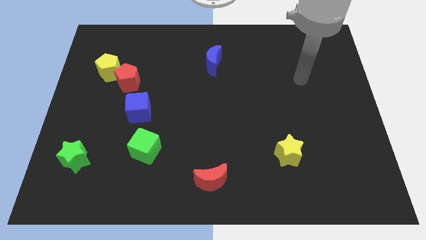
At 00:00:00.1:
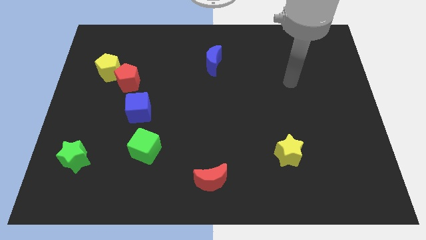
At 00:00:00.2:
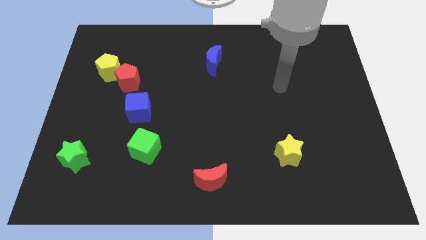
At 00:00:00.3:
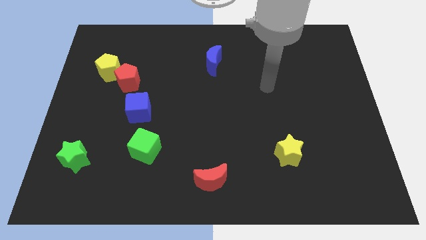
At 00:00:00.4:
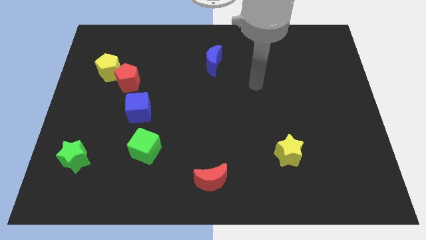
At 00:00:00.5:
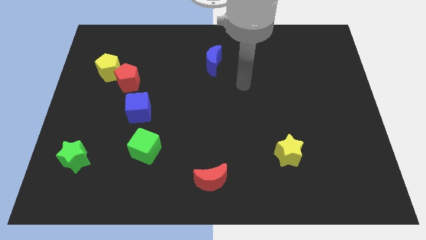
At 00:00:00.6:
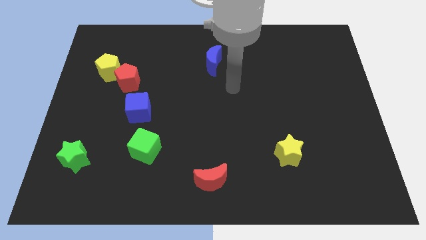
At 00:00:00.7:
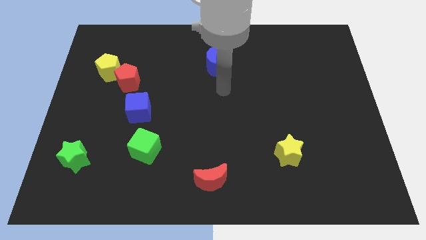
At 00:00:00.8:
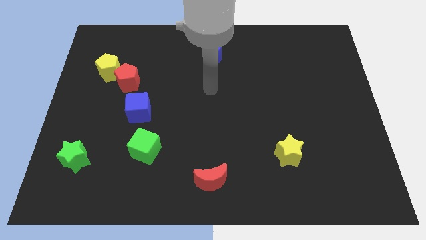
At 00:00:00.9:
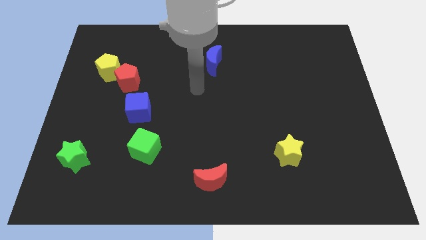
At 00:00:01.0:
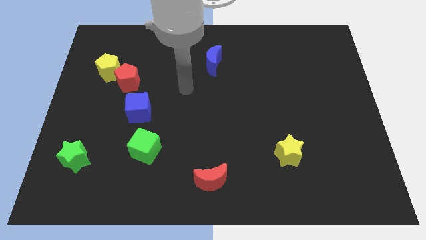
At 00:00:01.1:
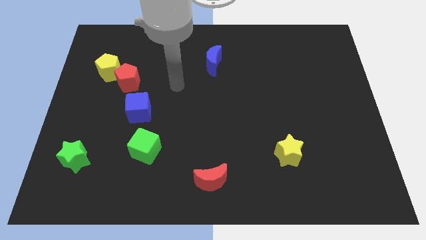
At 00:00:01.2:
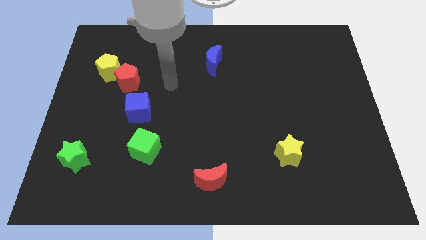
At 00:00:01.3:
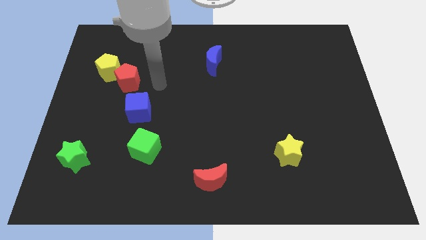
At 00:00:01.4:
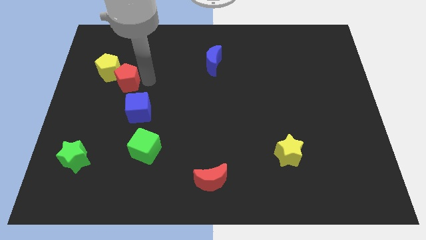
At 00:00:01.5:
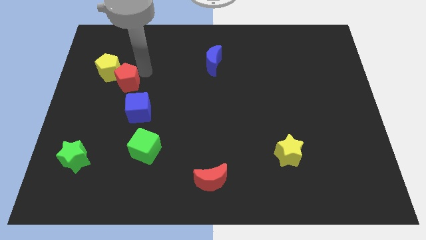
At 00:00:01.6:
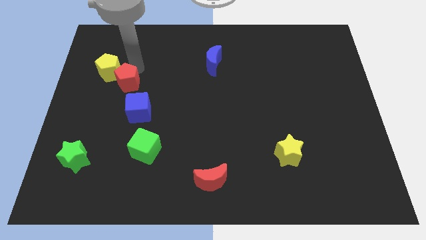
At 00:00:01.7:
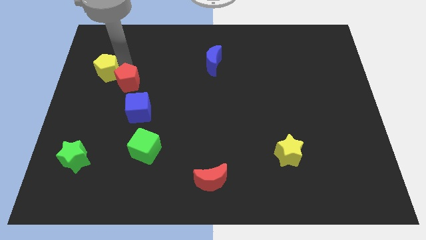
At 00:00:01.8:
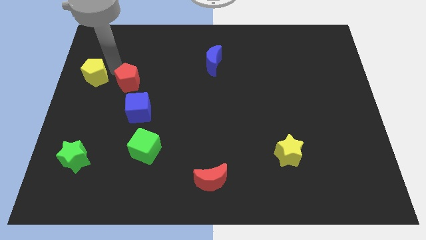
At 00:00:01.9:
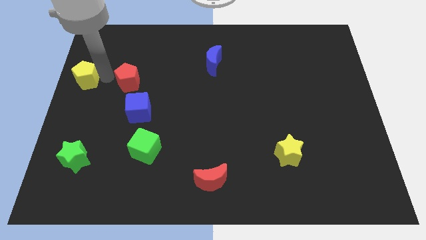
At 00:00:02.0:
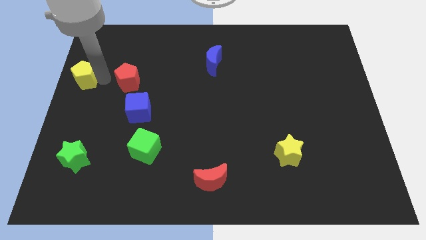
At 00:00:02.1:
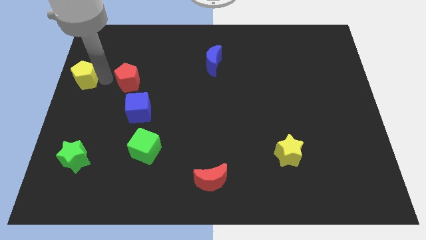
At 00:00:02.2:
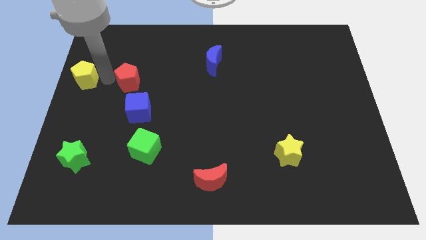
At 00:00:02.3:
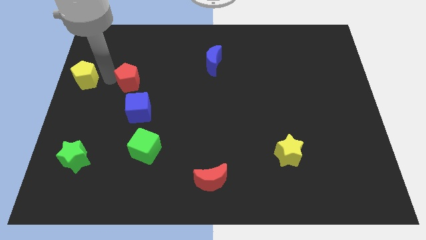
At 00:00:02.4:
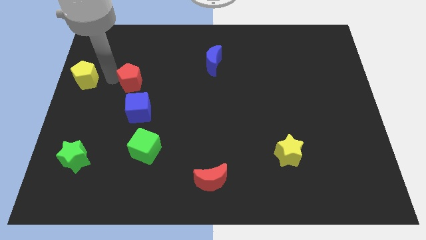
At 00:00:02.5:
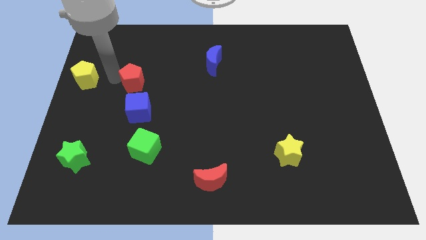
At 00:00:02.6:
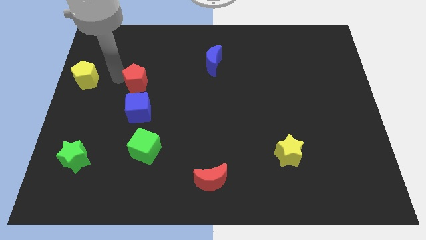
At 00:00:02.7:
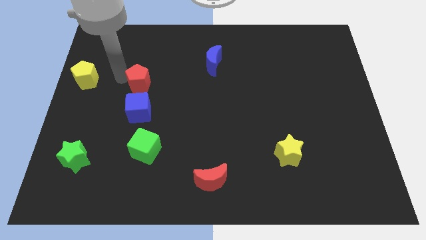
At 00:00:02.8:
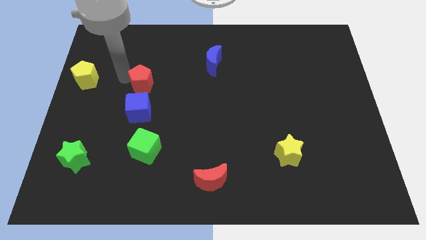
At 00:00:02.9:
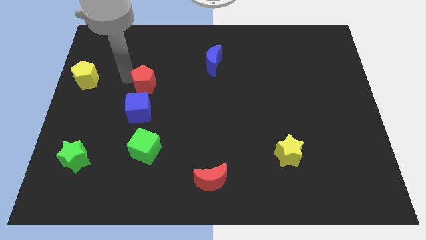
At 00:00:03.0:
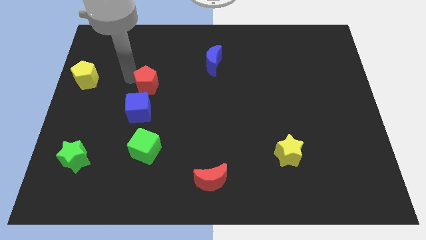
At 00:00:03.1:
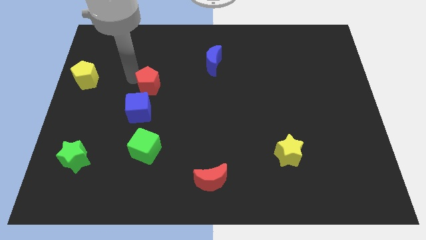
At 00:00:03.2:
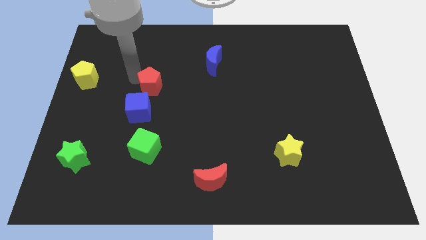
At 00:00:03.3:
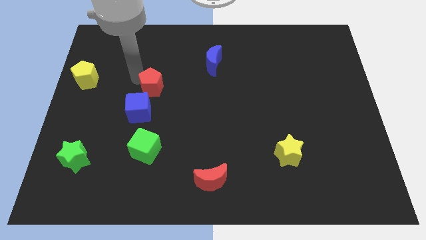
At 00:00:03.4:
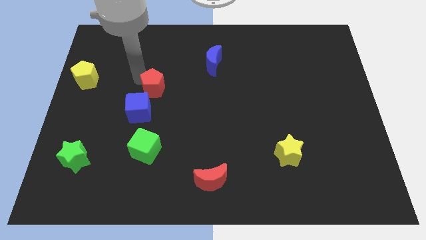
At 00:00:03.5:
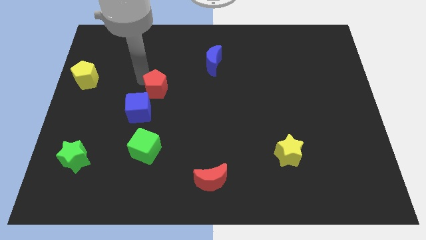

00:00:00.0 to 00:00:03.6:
push the red pentagon right slightly

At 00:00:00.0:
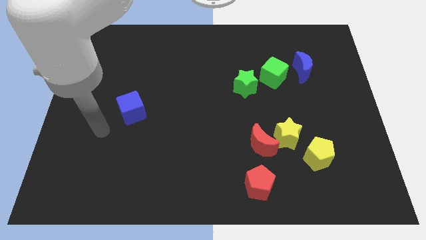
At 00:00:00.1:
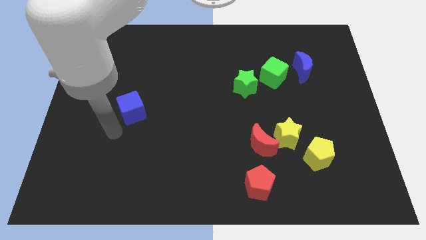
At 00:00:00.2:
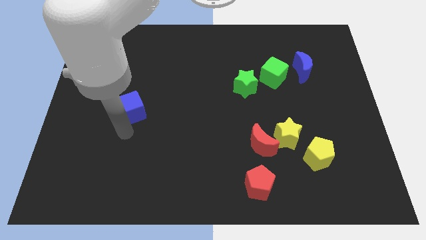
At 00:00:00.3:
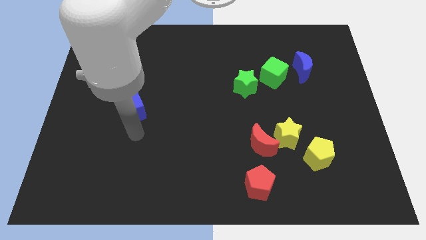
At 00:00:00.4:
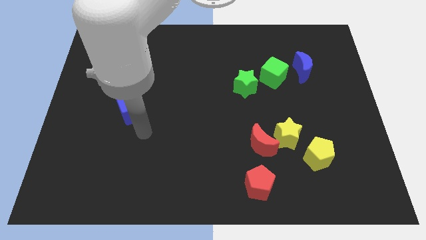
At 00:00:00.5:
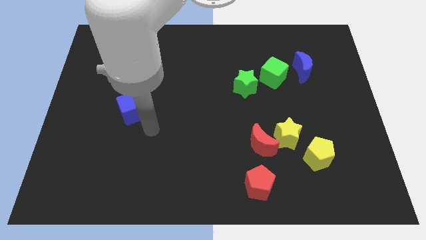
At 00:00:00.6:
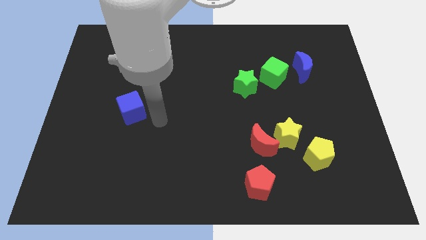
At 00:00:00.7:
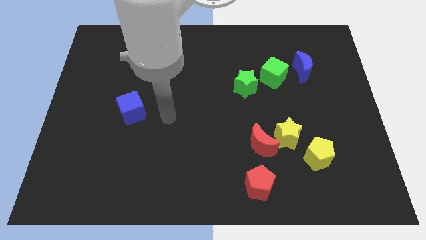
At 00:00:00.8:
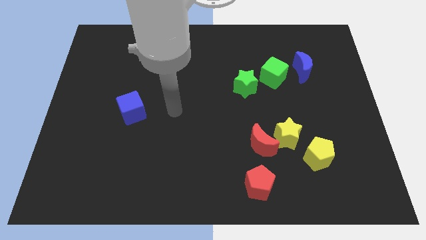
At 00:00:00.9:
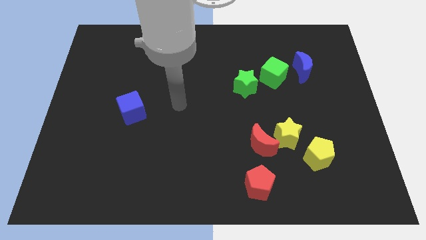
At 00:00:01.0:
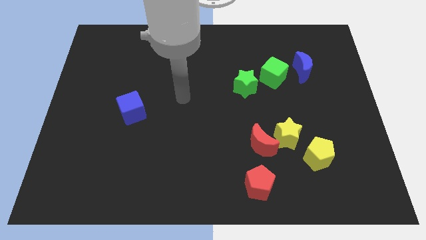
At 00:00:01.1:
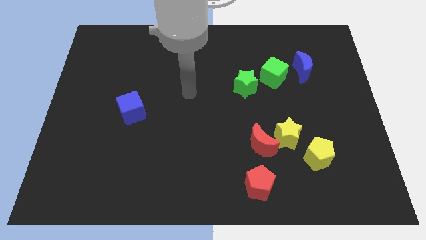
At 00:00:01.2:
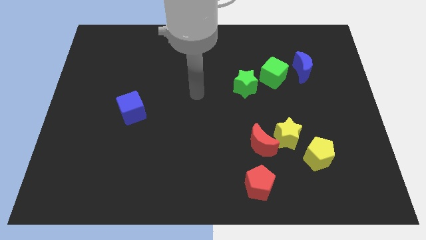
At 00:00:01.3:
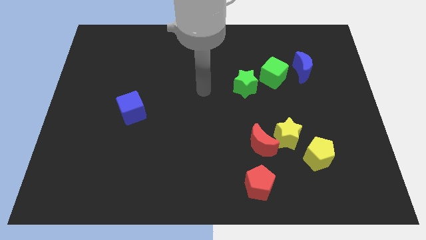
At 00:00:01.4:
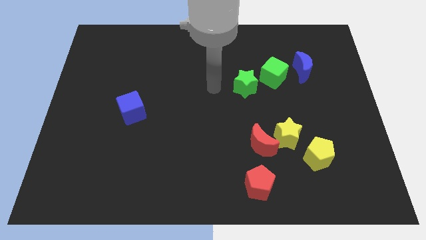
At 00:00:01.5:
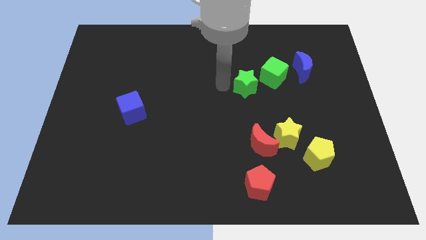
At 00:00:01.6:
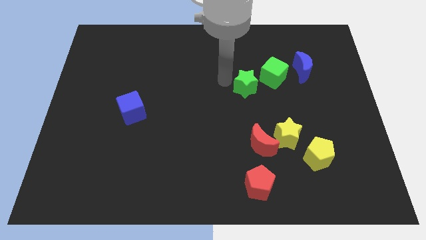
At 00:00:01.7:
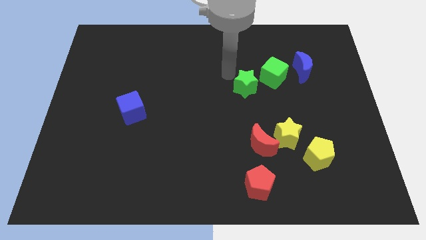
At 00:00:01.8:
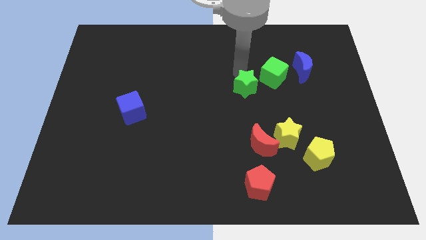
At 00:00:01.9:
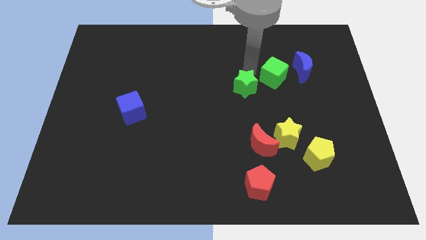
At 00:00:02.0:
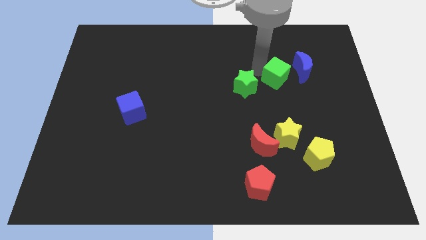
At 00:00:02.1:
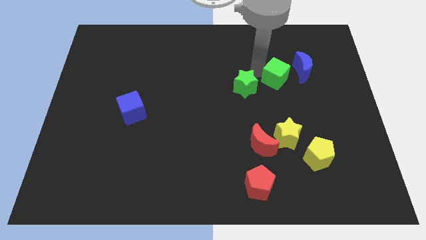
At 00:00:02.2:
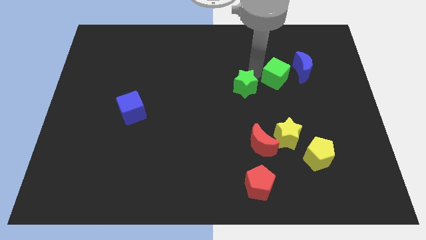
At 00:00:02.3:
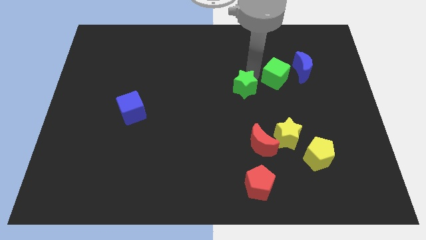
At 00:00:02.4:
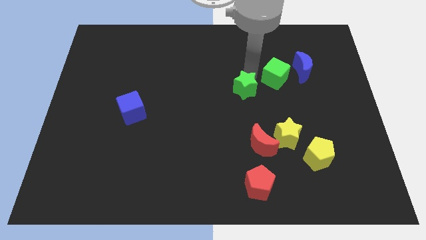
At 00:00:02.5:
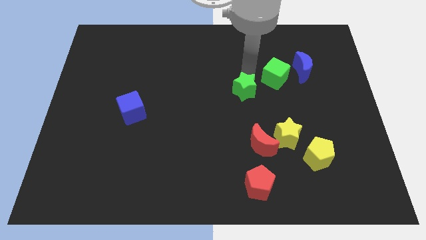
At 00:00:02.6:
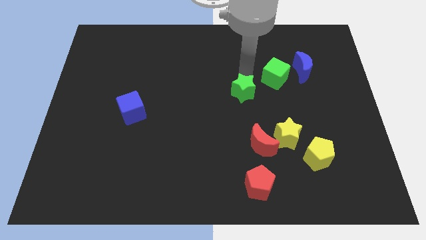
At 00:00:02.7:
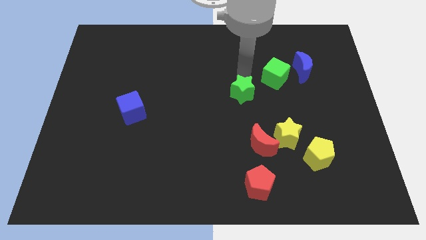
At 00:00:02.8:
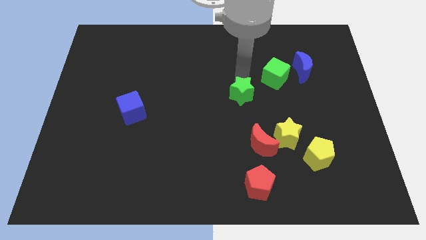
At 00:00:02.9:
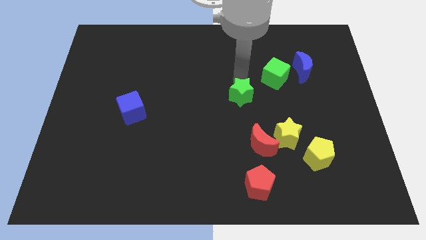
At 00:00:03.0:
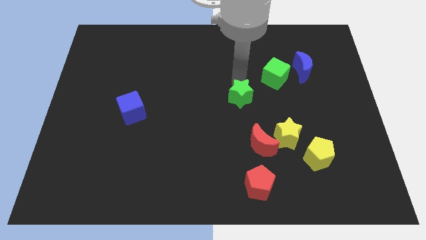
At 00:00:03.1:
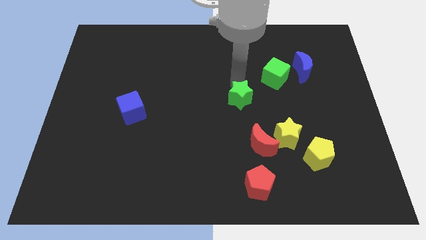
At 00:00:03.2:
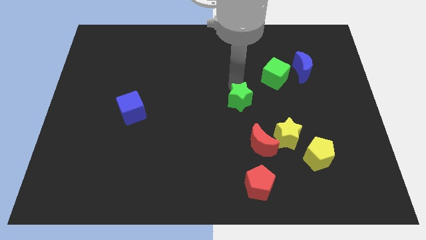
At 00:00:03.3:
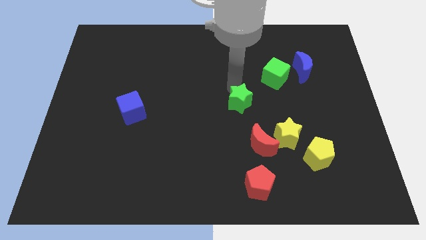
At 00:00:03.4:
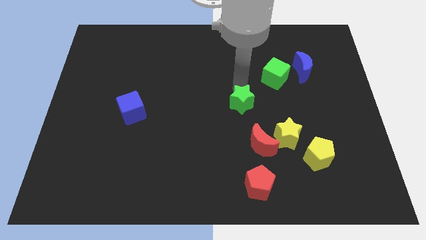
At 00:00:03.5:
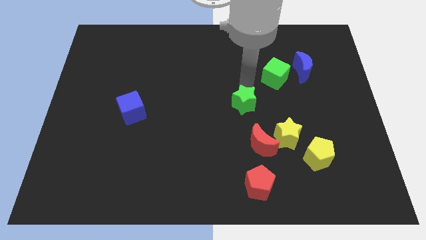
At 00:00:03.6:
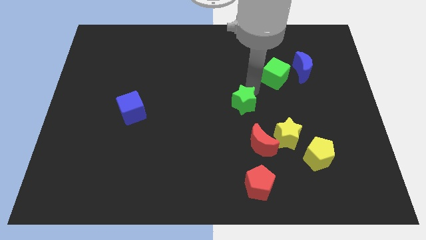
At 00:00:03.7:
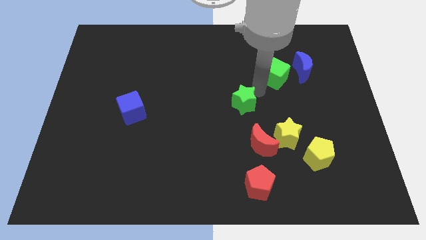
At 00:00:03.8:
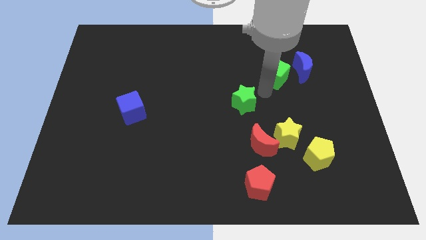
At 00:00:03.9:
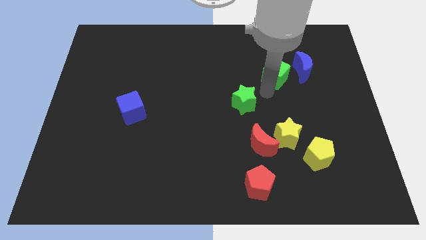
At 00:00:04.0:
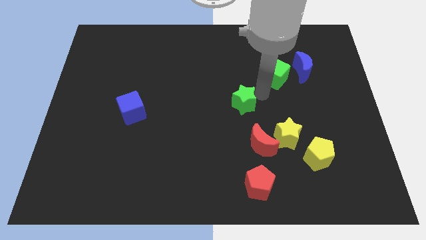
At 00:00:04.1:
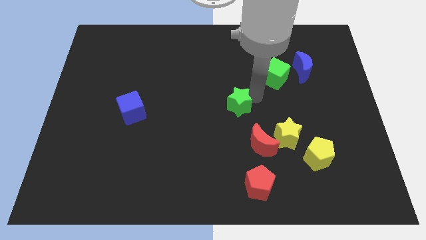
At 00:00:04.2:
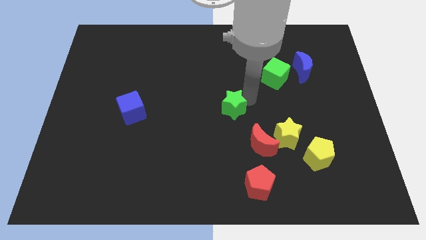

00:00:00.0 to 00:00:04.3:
move the green star a little down and left diagonally
